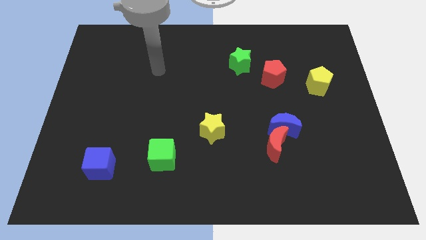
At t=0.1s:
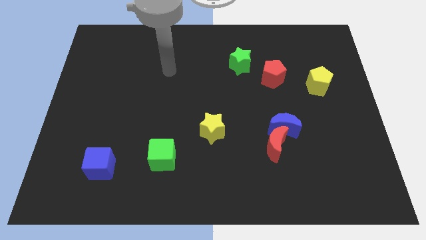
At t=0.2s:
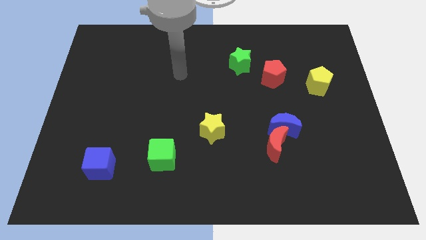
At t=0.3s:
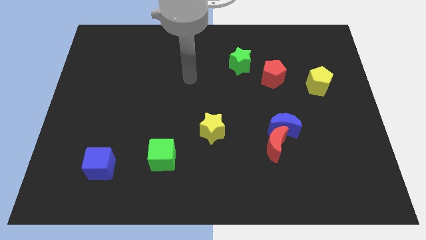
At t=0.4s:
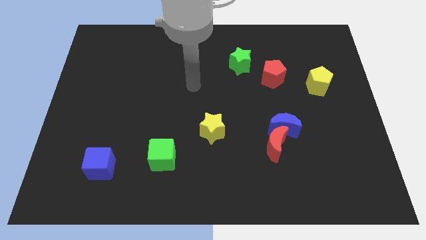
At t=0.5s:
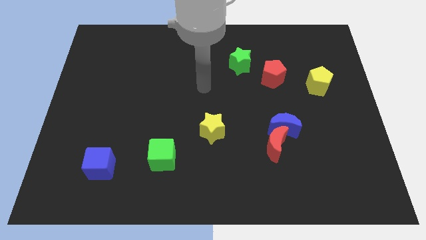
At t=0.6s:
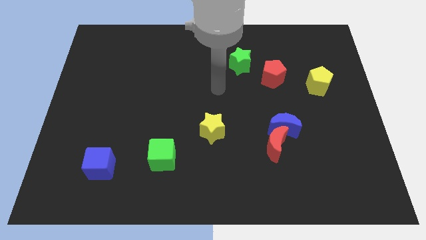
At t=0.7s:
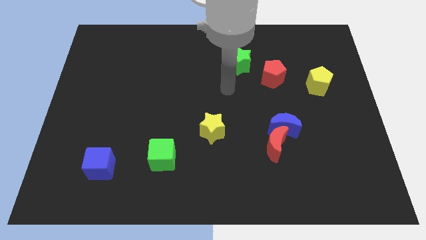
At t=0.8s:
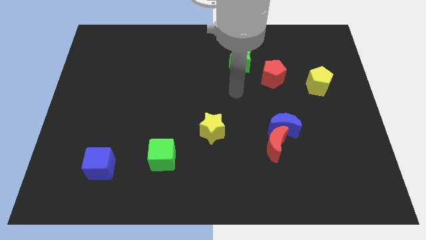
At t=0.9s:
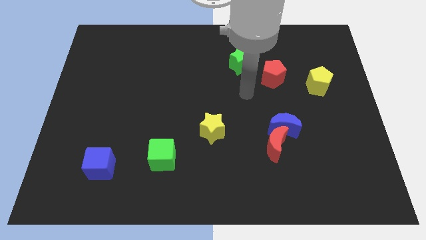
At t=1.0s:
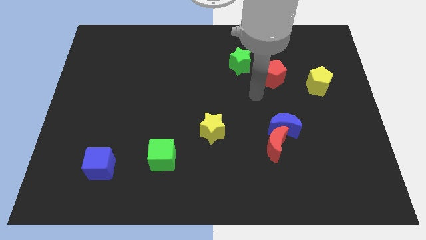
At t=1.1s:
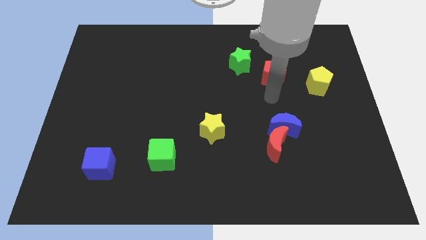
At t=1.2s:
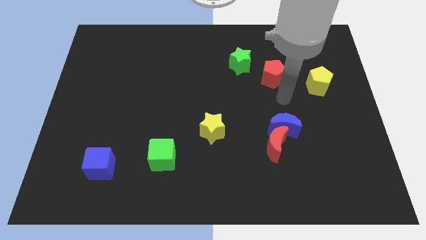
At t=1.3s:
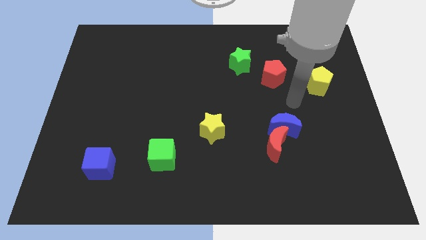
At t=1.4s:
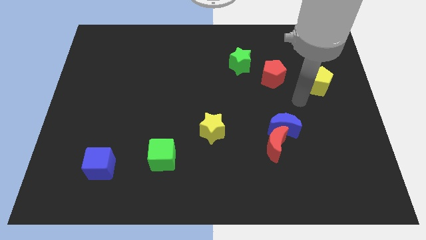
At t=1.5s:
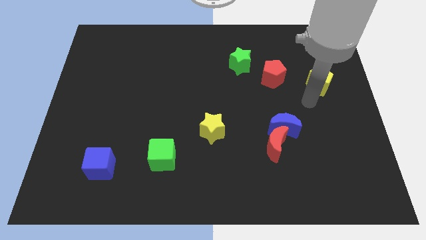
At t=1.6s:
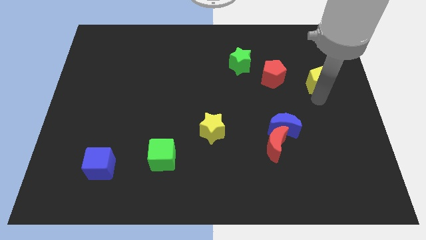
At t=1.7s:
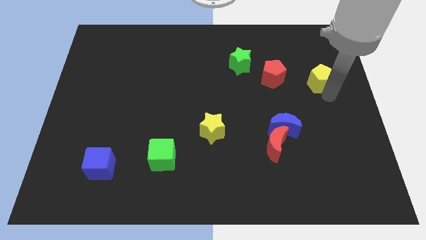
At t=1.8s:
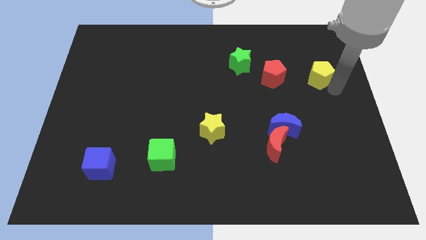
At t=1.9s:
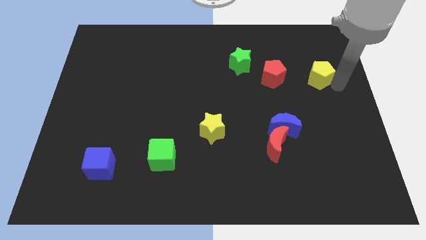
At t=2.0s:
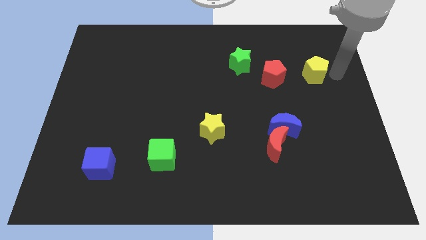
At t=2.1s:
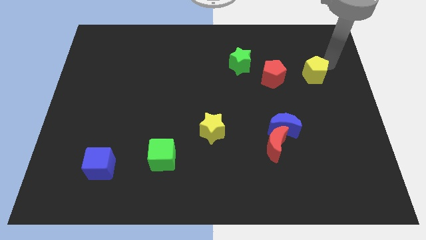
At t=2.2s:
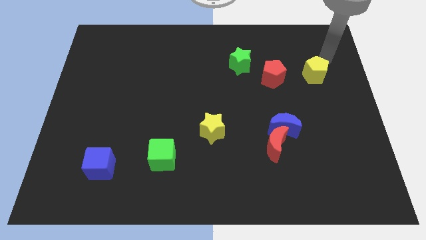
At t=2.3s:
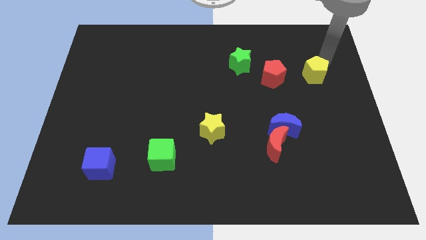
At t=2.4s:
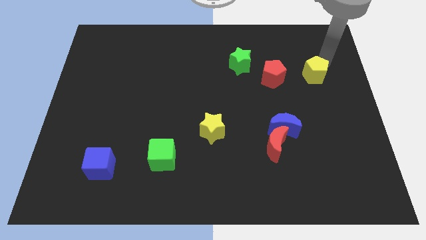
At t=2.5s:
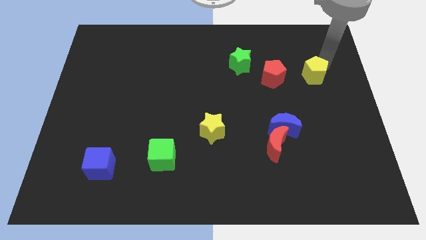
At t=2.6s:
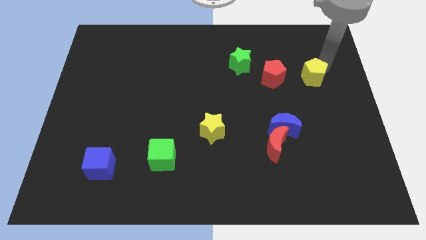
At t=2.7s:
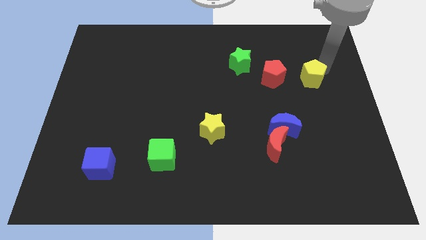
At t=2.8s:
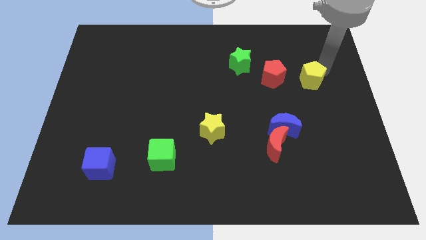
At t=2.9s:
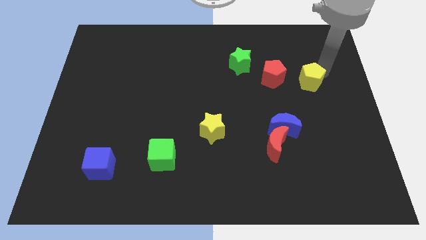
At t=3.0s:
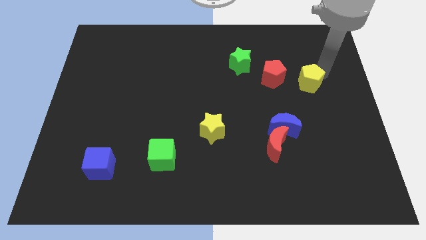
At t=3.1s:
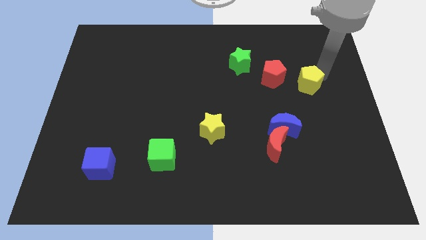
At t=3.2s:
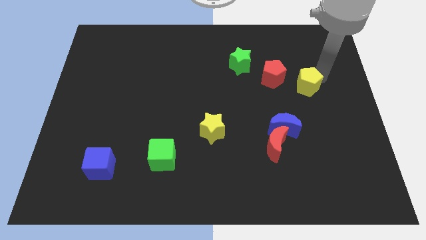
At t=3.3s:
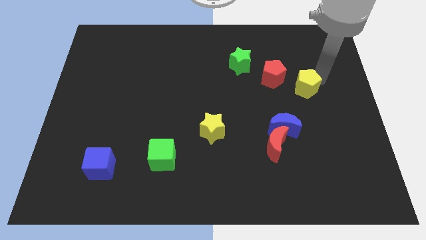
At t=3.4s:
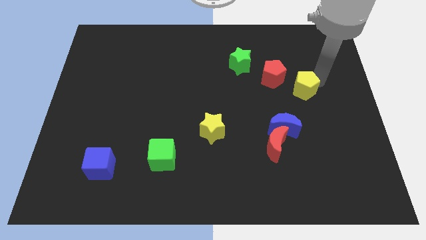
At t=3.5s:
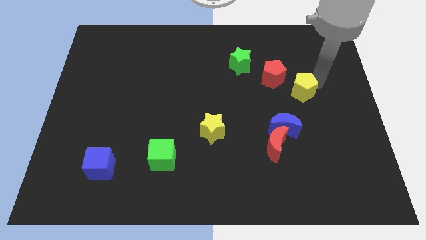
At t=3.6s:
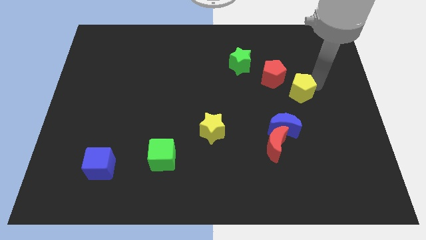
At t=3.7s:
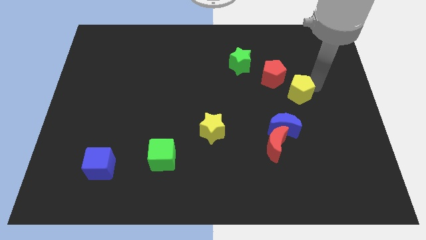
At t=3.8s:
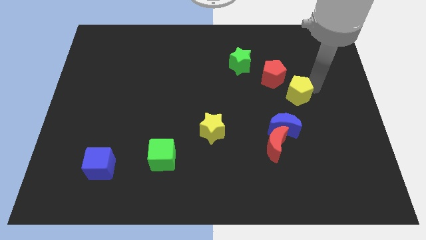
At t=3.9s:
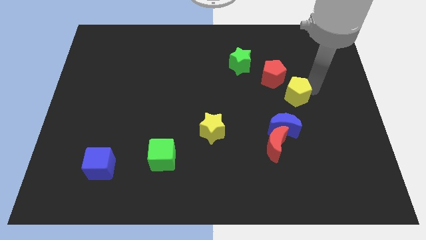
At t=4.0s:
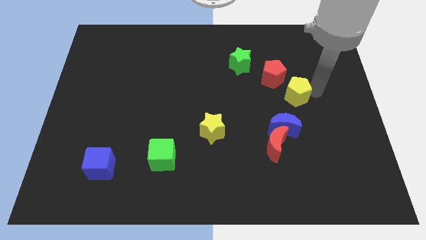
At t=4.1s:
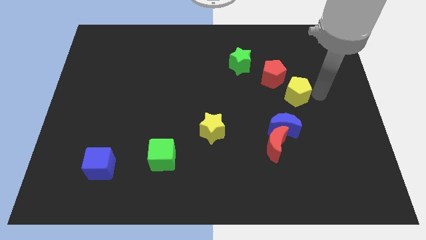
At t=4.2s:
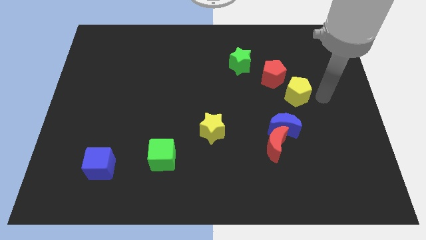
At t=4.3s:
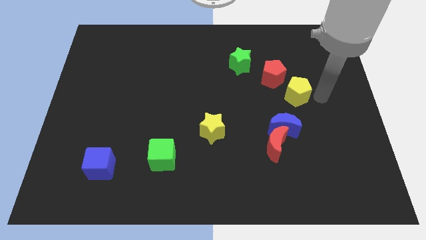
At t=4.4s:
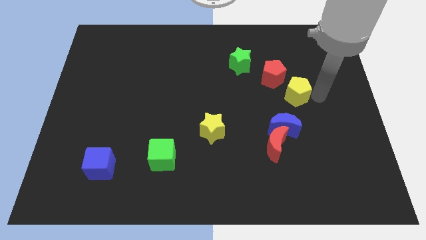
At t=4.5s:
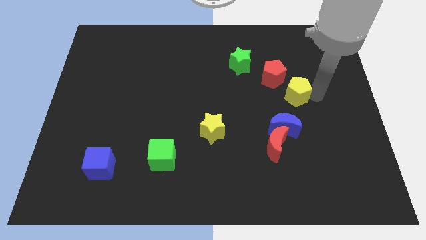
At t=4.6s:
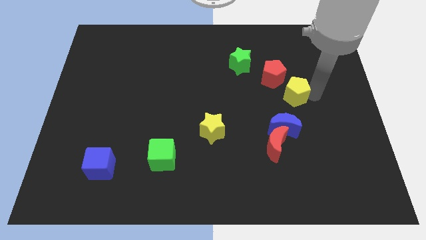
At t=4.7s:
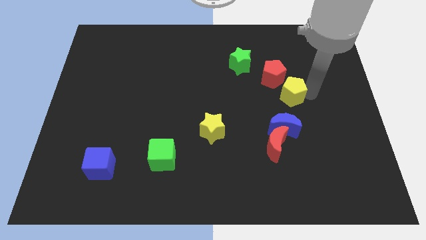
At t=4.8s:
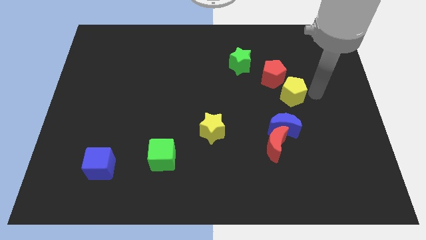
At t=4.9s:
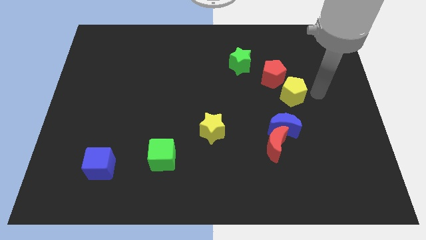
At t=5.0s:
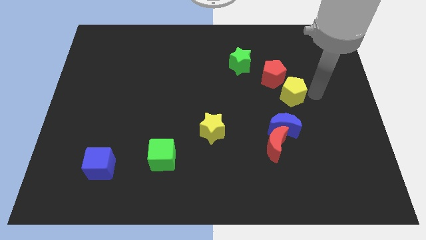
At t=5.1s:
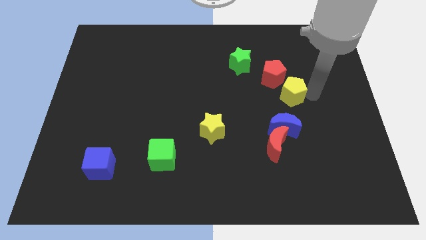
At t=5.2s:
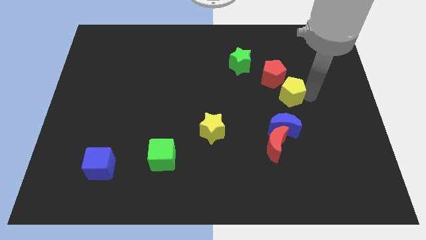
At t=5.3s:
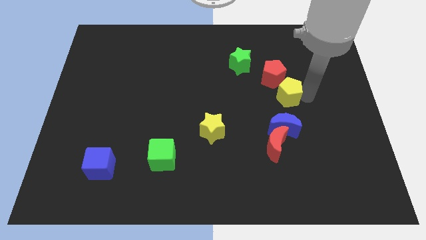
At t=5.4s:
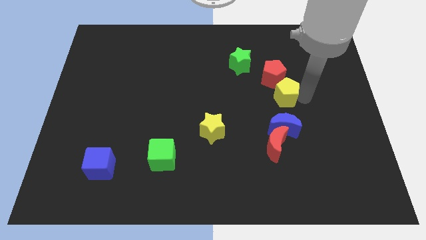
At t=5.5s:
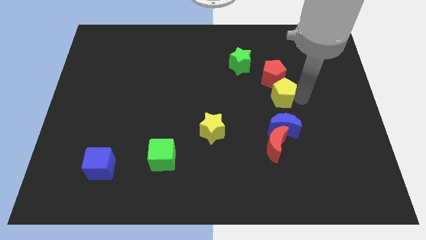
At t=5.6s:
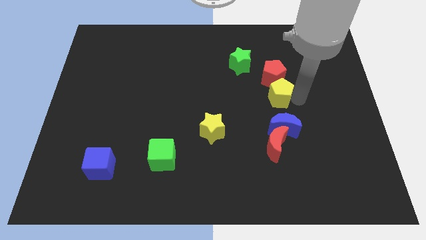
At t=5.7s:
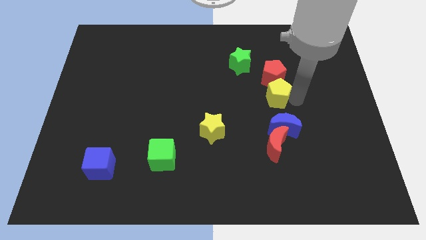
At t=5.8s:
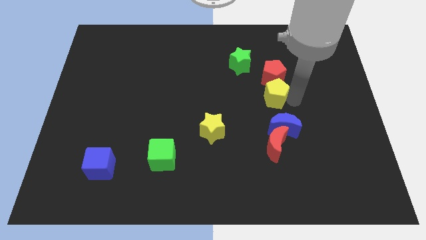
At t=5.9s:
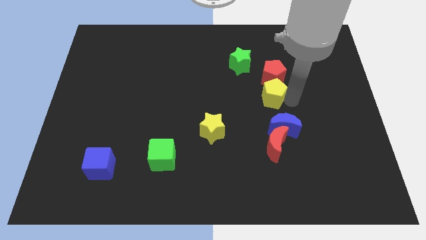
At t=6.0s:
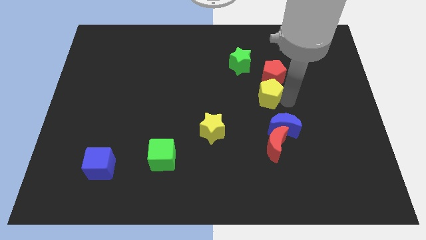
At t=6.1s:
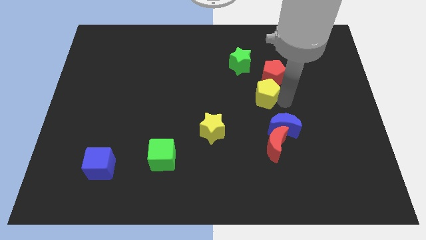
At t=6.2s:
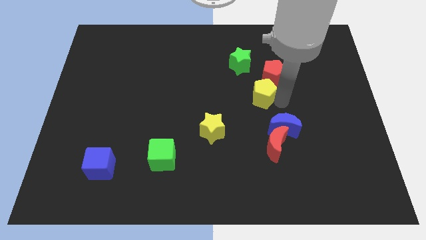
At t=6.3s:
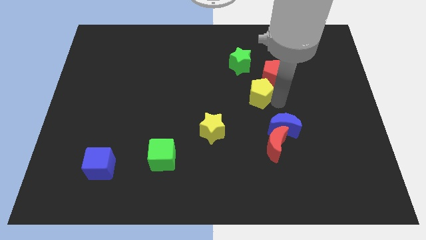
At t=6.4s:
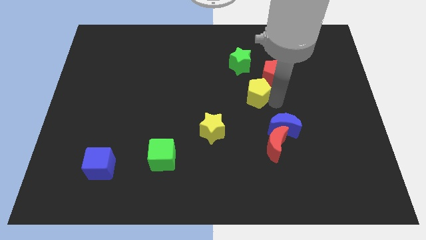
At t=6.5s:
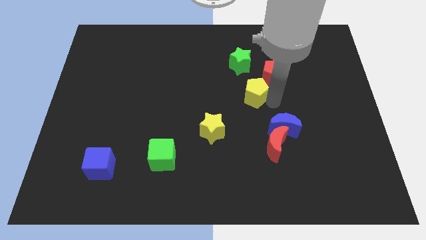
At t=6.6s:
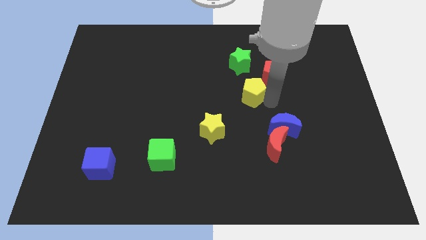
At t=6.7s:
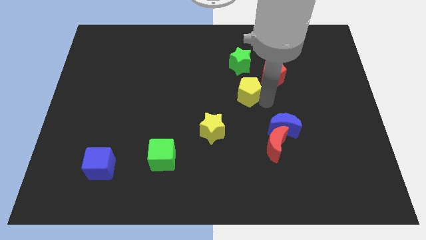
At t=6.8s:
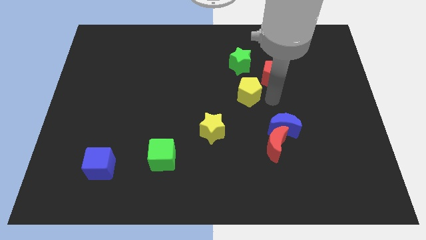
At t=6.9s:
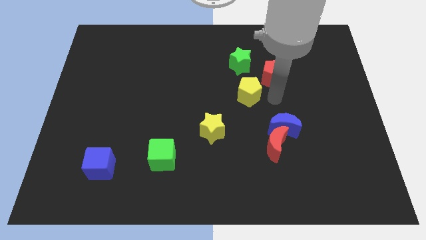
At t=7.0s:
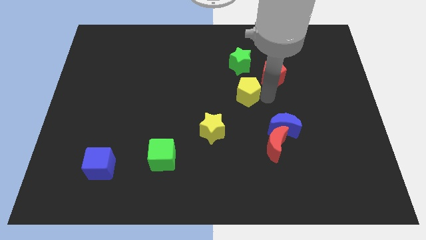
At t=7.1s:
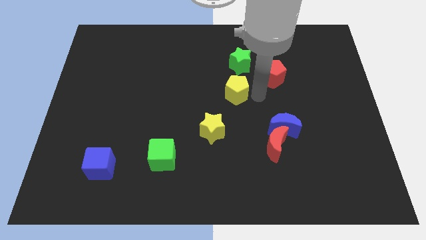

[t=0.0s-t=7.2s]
slide the yellow pentagon left

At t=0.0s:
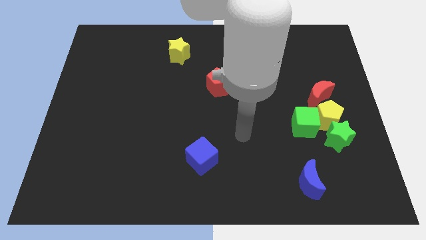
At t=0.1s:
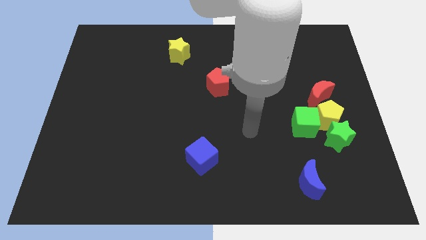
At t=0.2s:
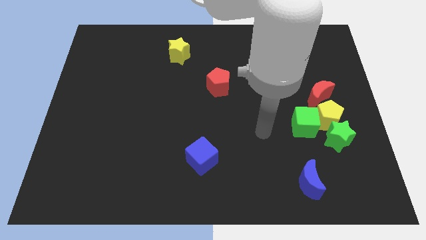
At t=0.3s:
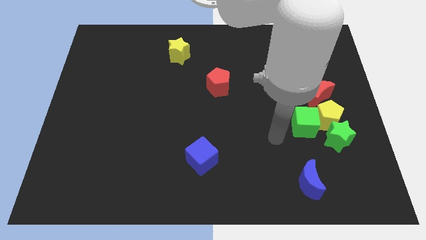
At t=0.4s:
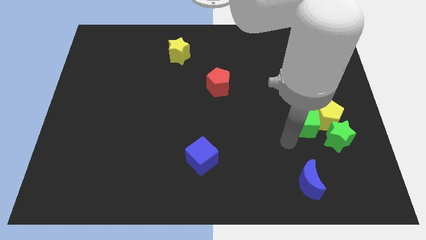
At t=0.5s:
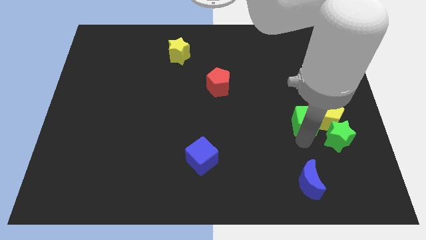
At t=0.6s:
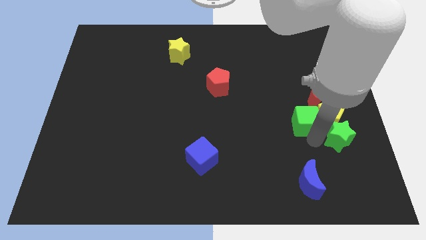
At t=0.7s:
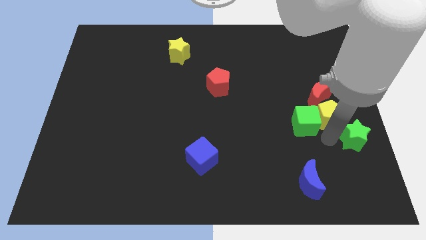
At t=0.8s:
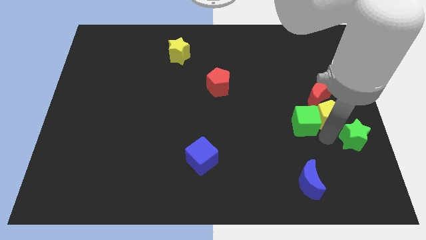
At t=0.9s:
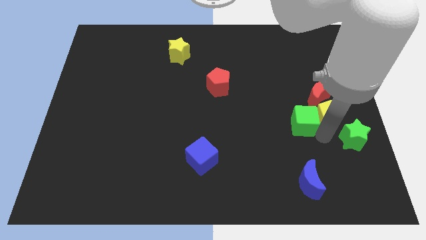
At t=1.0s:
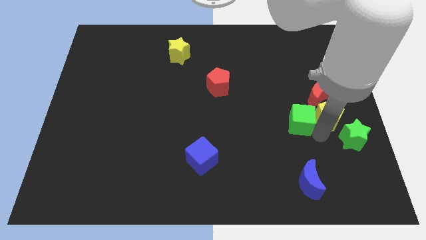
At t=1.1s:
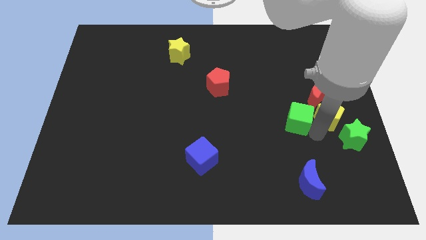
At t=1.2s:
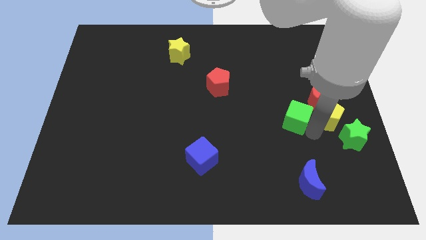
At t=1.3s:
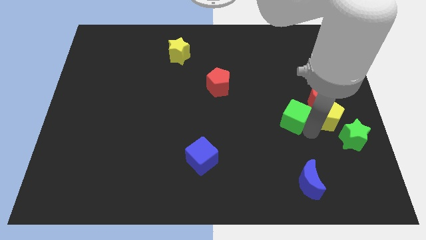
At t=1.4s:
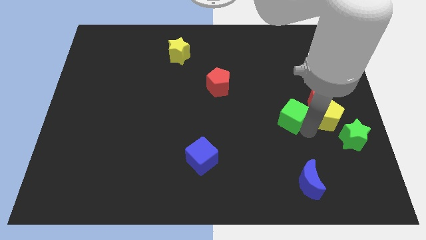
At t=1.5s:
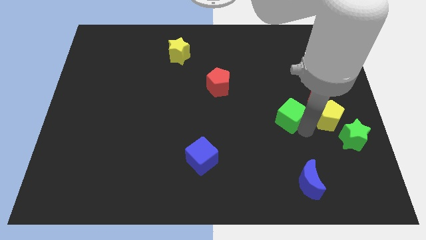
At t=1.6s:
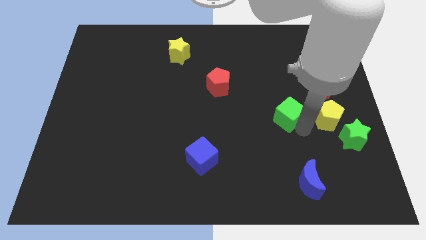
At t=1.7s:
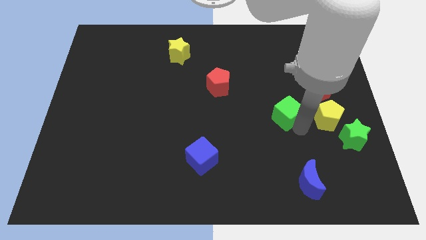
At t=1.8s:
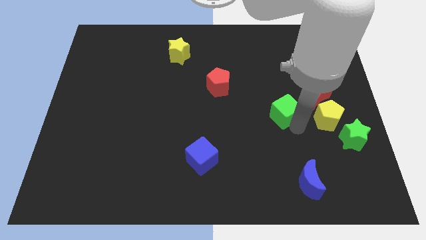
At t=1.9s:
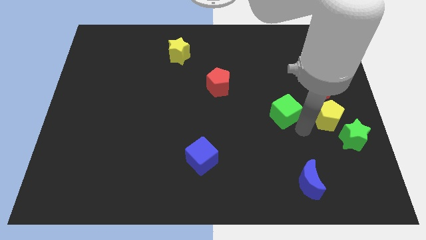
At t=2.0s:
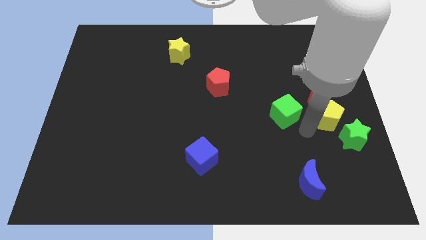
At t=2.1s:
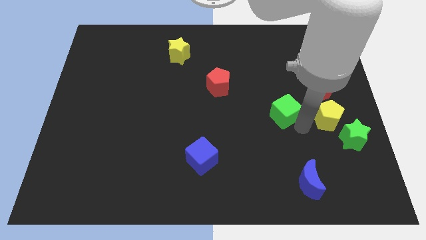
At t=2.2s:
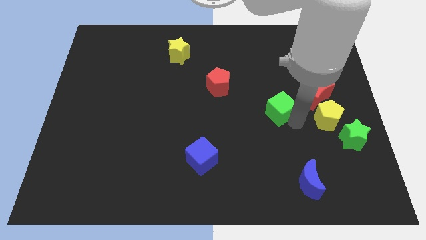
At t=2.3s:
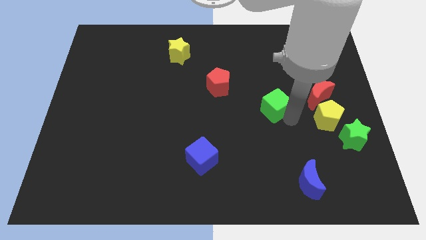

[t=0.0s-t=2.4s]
slightly slide the green cube up and left
